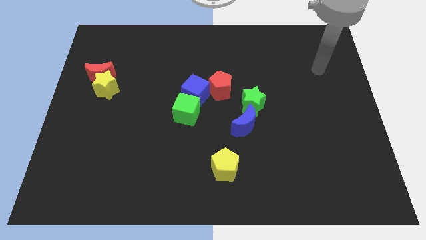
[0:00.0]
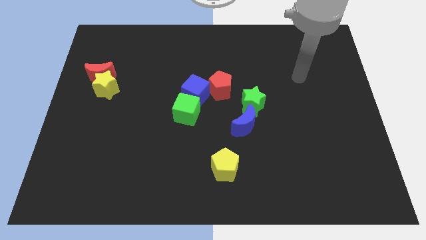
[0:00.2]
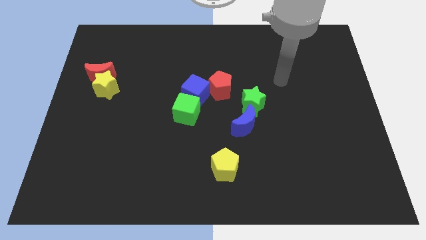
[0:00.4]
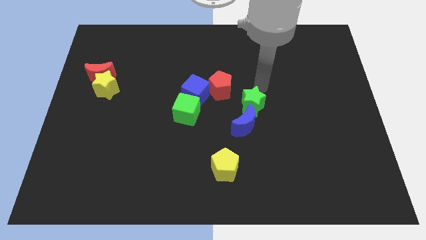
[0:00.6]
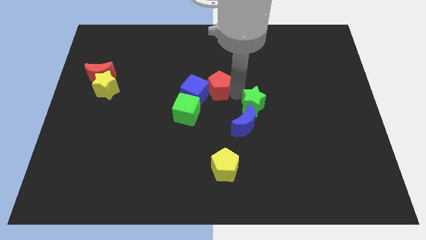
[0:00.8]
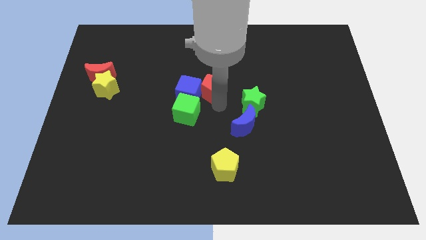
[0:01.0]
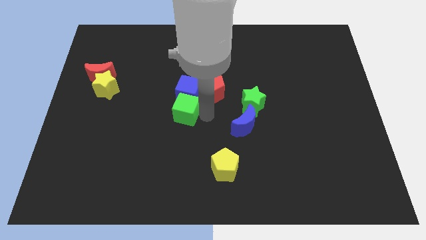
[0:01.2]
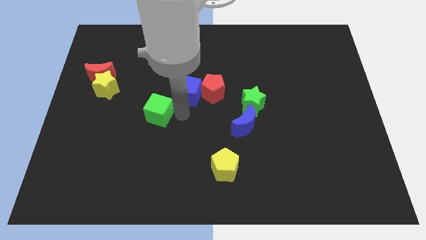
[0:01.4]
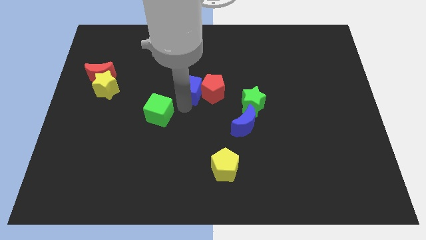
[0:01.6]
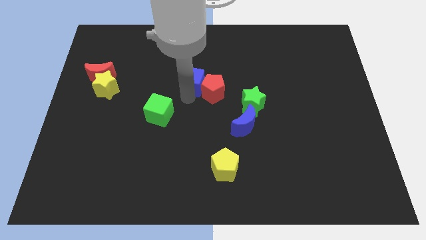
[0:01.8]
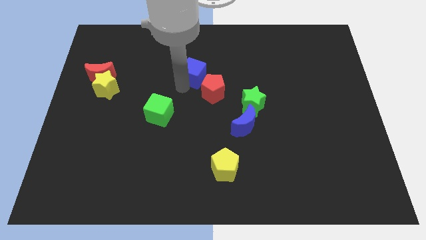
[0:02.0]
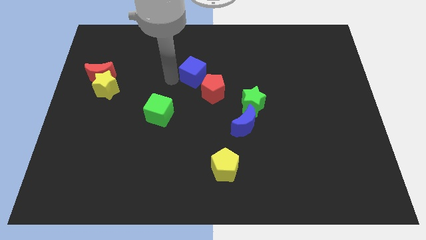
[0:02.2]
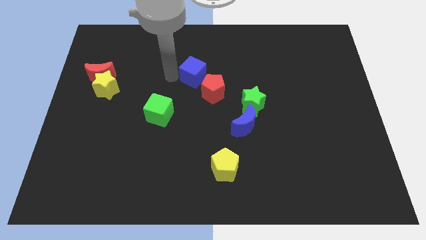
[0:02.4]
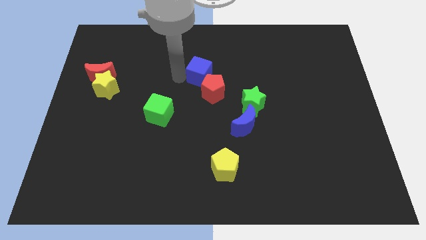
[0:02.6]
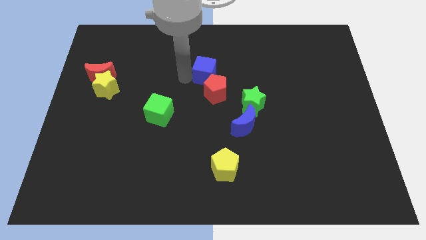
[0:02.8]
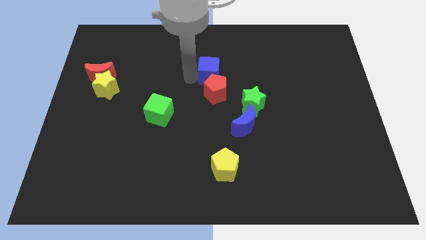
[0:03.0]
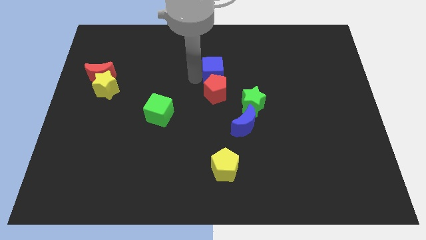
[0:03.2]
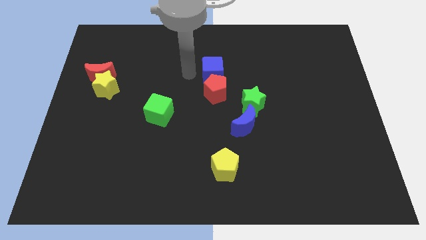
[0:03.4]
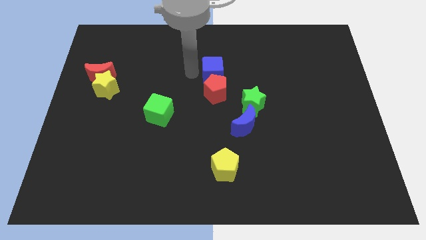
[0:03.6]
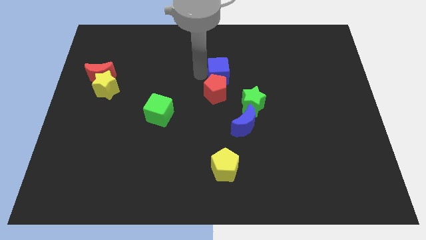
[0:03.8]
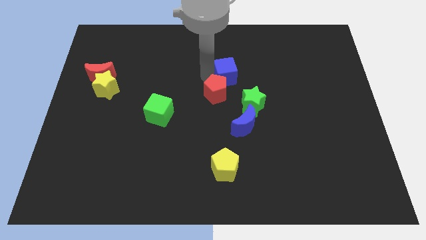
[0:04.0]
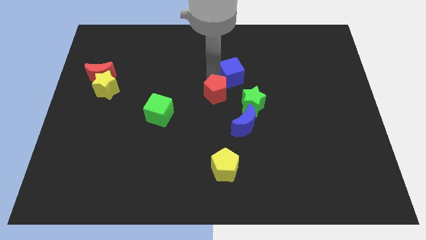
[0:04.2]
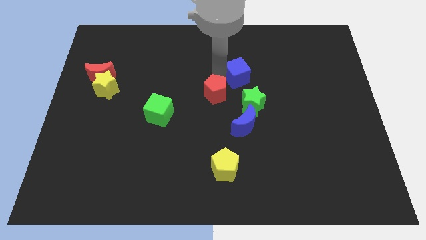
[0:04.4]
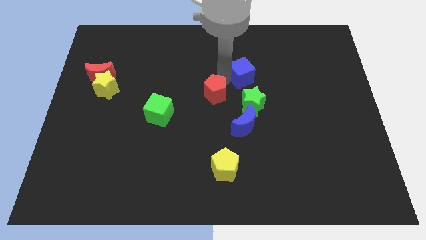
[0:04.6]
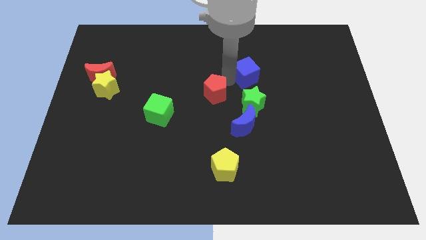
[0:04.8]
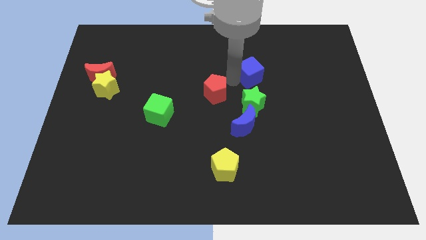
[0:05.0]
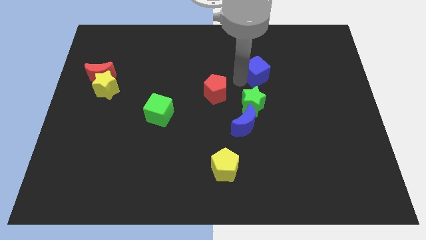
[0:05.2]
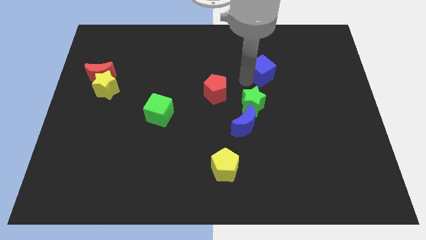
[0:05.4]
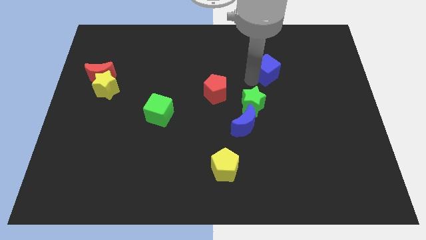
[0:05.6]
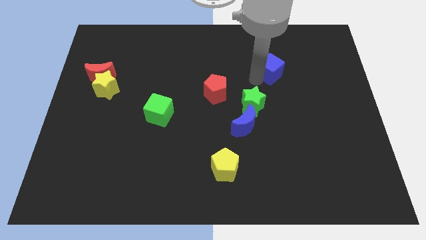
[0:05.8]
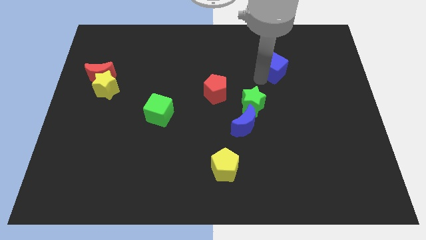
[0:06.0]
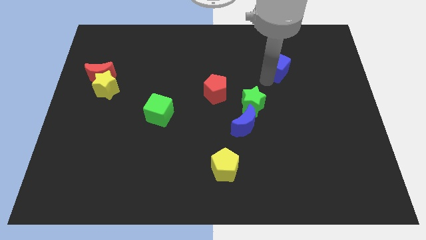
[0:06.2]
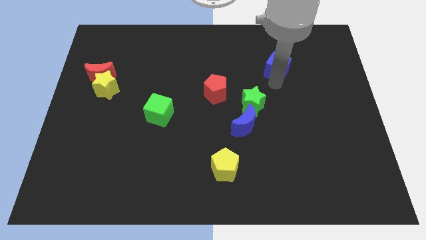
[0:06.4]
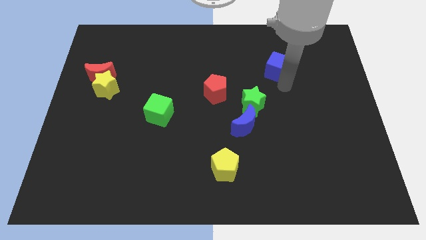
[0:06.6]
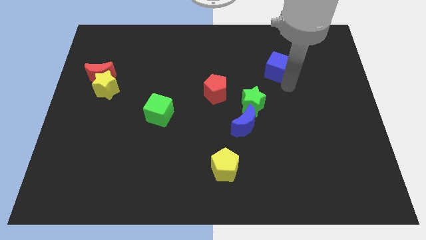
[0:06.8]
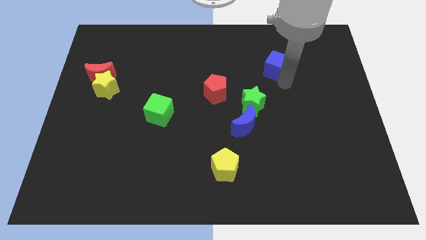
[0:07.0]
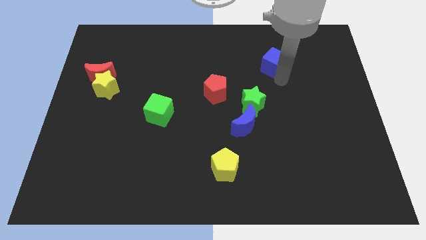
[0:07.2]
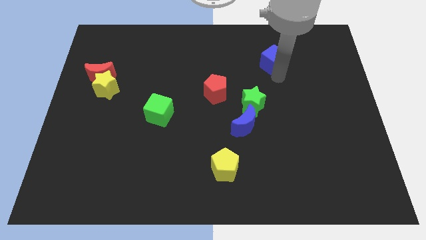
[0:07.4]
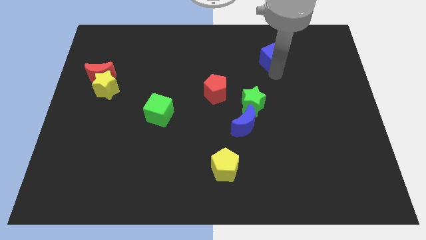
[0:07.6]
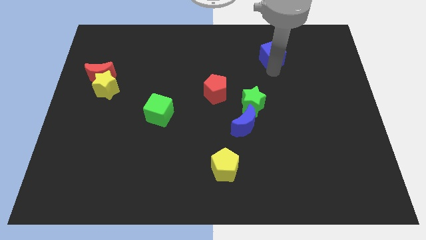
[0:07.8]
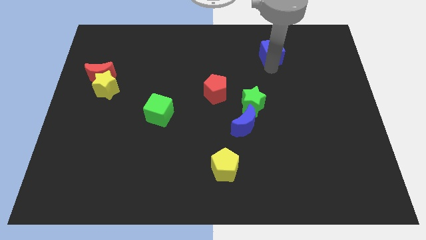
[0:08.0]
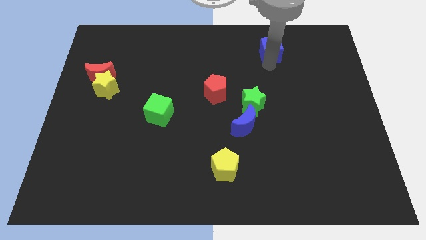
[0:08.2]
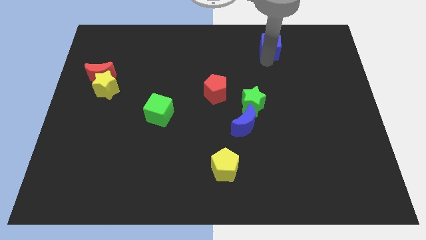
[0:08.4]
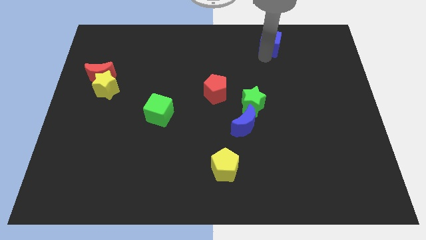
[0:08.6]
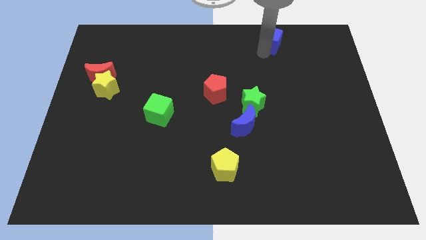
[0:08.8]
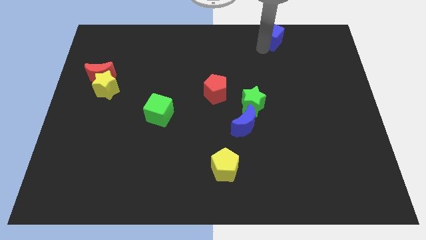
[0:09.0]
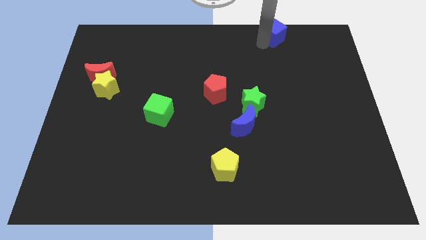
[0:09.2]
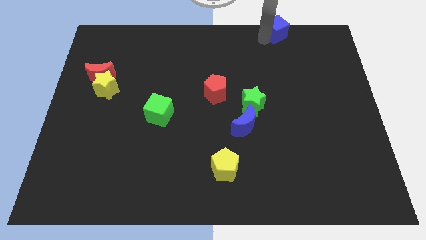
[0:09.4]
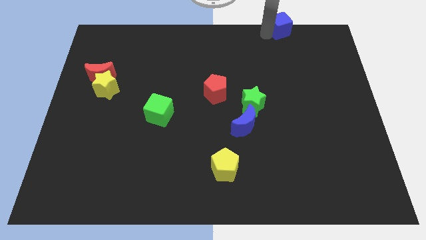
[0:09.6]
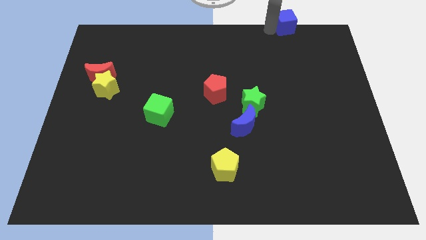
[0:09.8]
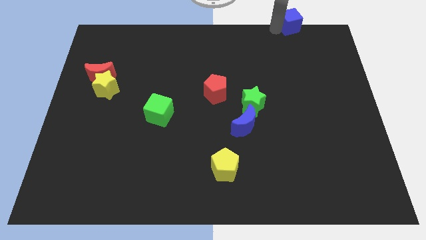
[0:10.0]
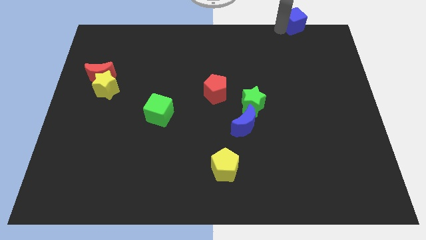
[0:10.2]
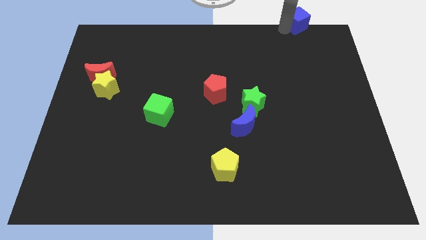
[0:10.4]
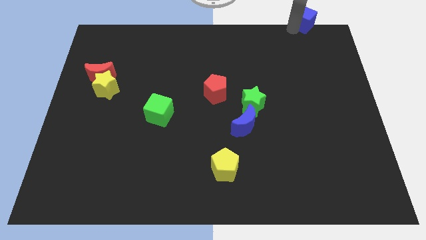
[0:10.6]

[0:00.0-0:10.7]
put the blue cube to the top right of the board
